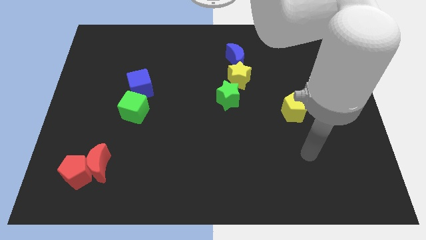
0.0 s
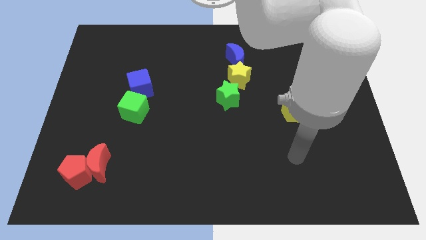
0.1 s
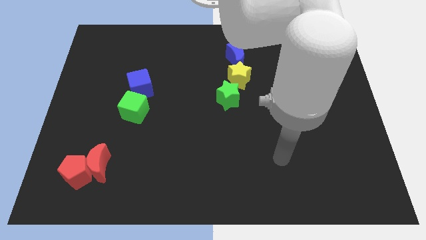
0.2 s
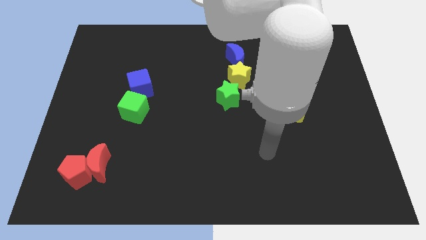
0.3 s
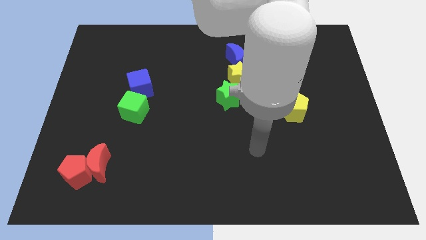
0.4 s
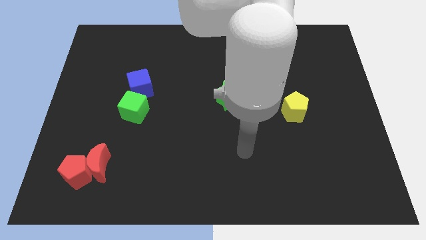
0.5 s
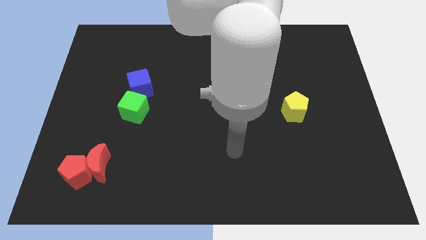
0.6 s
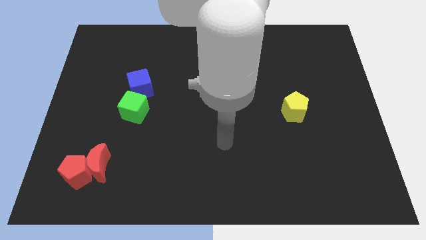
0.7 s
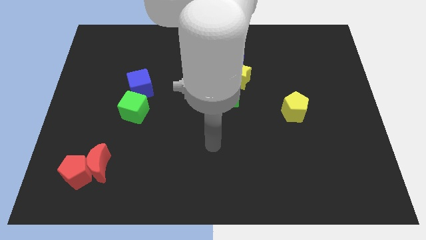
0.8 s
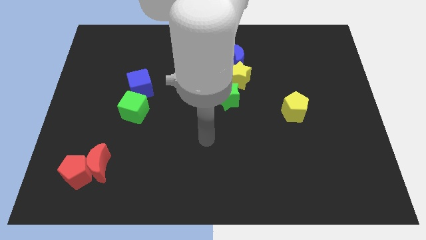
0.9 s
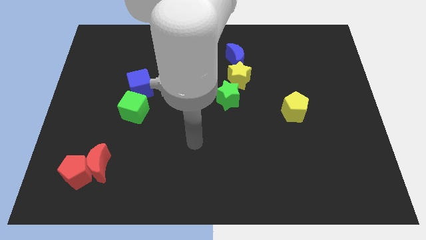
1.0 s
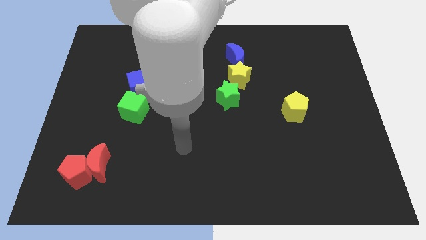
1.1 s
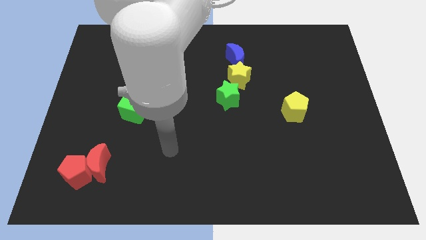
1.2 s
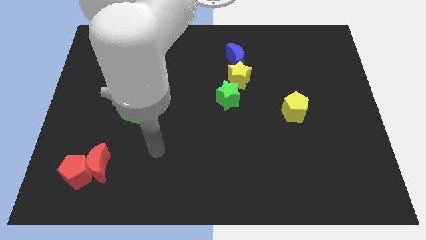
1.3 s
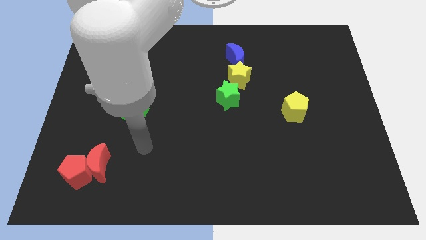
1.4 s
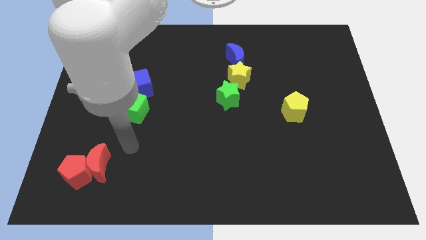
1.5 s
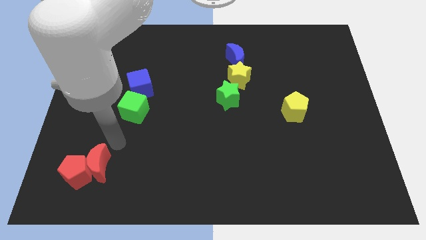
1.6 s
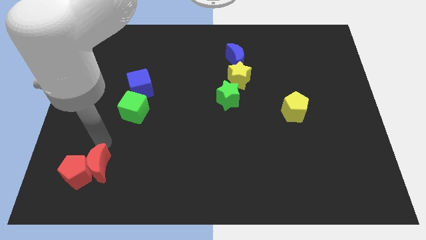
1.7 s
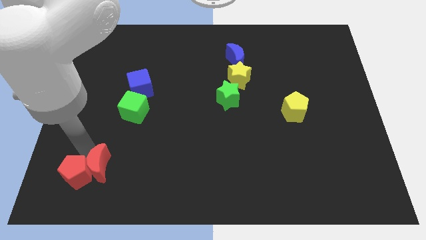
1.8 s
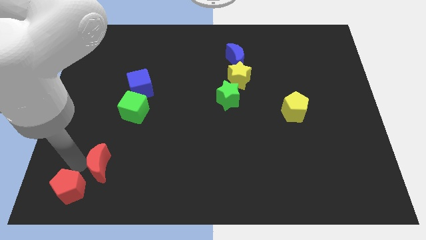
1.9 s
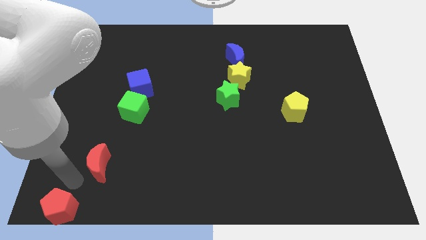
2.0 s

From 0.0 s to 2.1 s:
pull the red moon apart from the red pentagon

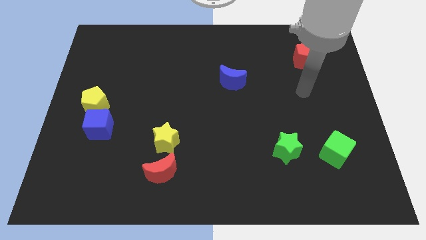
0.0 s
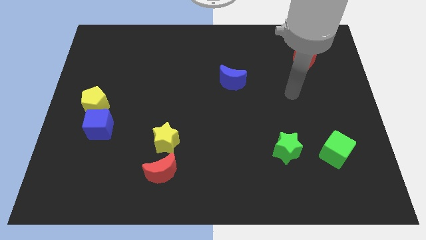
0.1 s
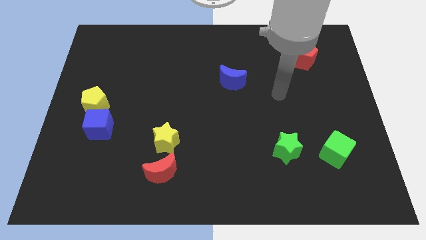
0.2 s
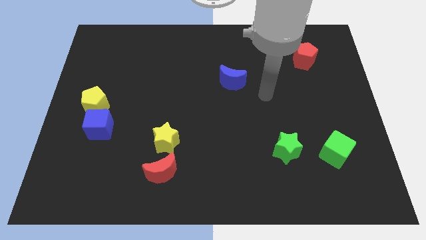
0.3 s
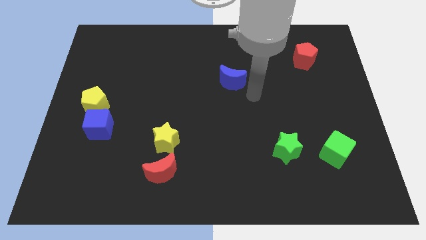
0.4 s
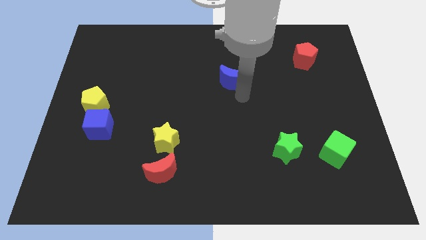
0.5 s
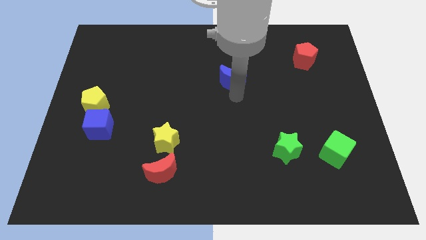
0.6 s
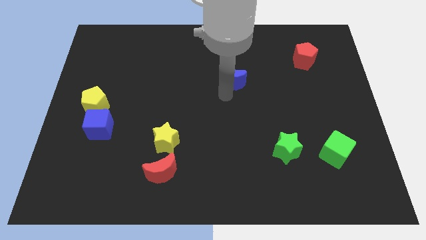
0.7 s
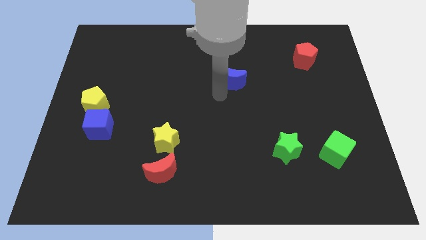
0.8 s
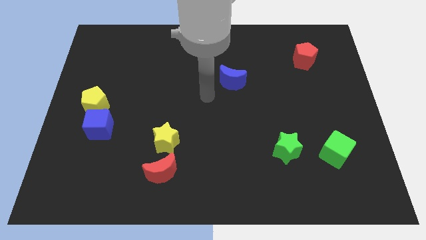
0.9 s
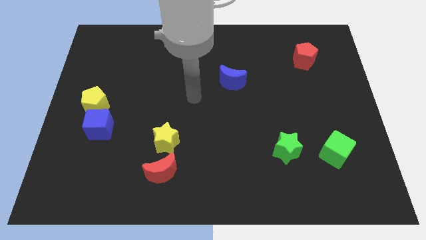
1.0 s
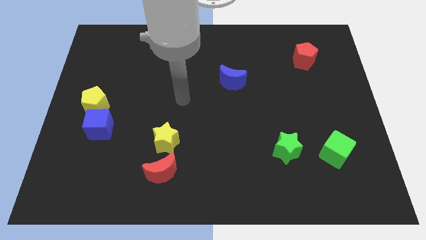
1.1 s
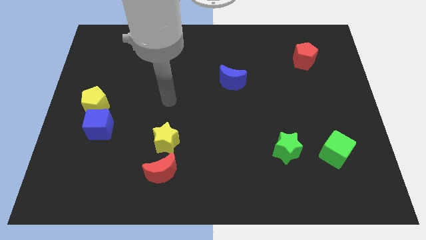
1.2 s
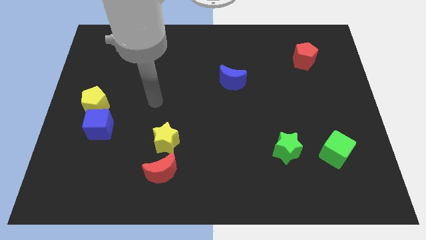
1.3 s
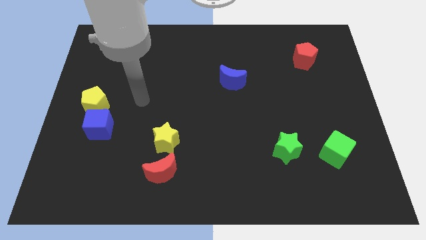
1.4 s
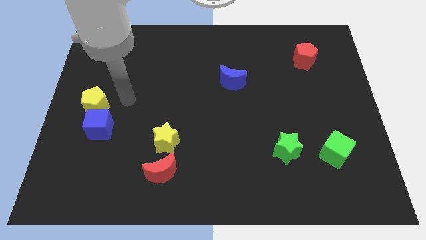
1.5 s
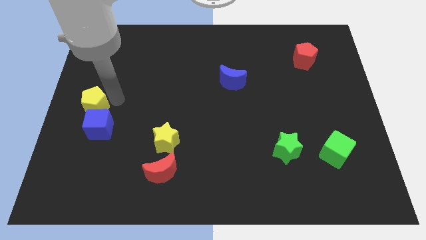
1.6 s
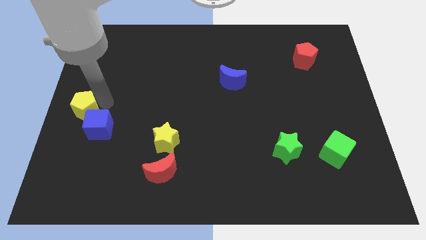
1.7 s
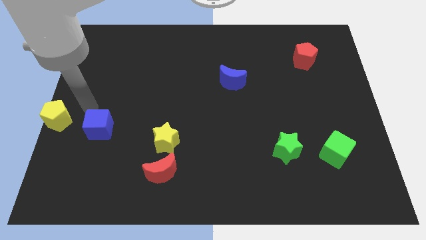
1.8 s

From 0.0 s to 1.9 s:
separate the blue cube from the yellow pentagon

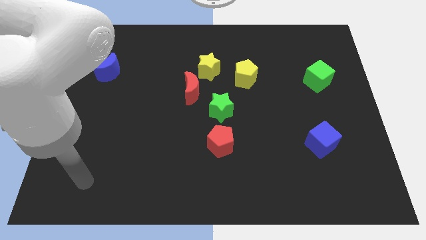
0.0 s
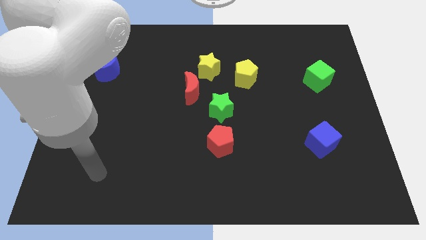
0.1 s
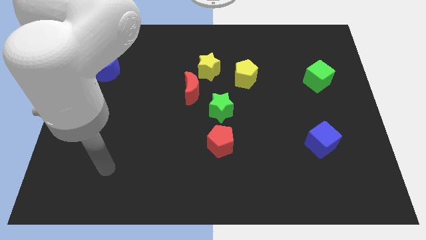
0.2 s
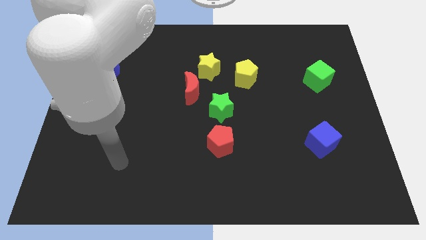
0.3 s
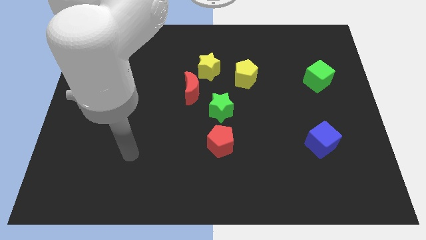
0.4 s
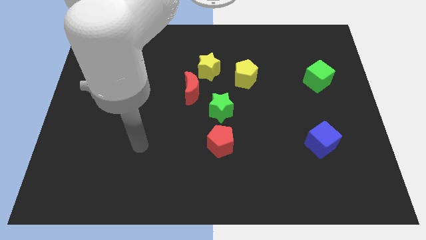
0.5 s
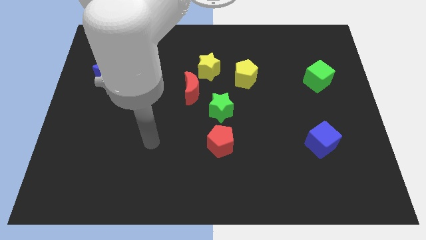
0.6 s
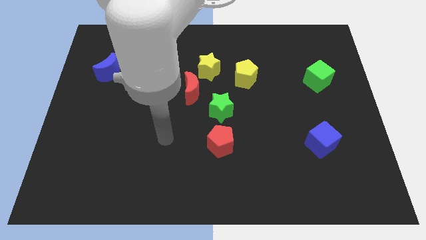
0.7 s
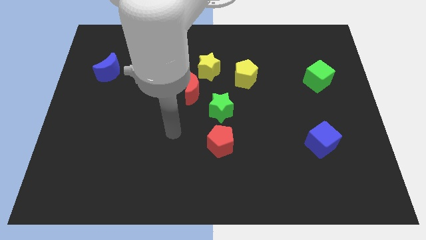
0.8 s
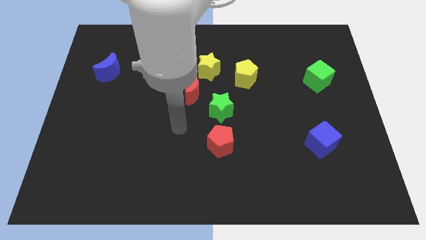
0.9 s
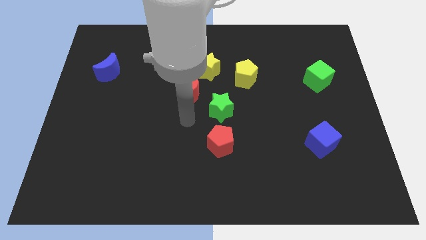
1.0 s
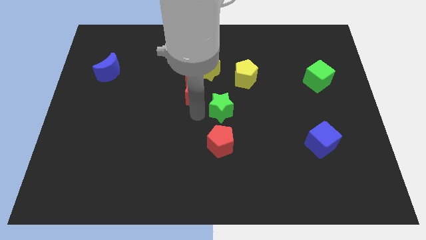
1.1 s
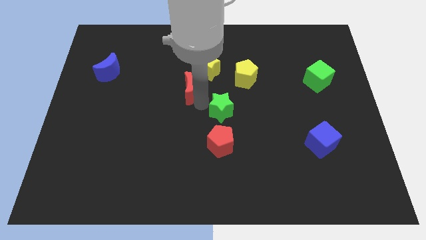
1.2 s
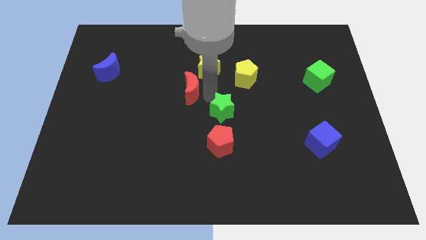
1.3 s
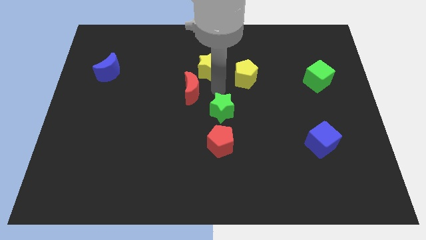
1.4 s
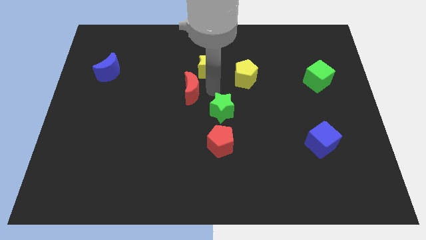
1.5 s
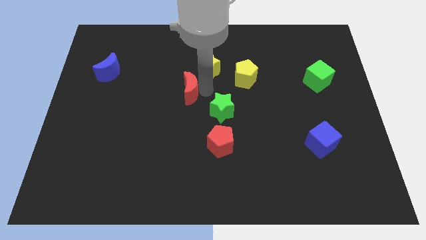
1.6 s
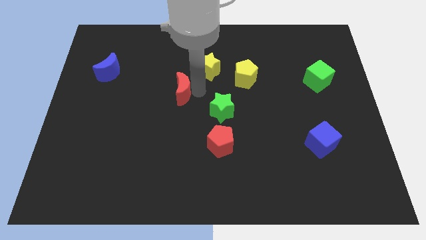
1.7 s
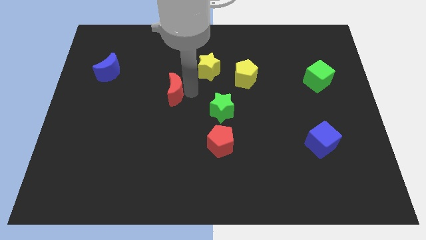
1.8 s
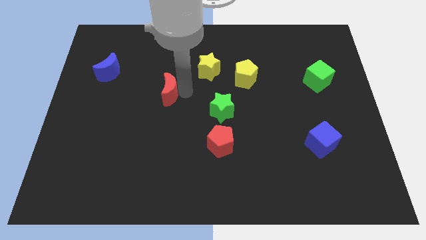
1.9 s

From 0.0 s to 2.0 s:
move the red moon away from the yellow star and green star

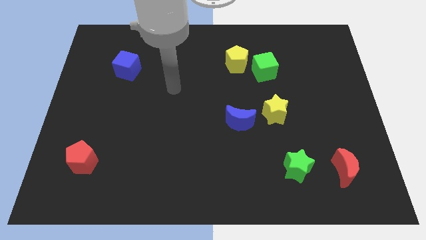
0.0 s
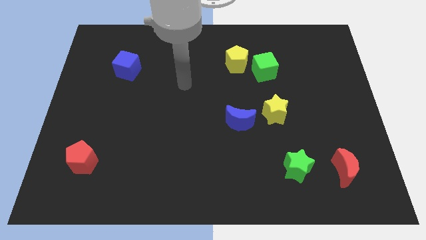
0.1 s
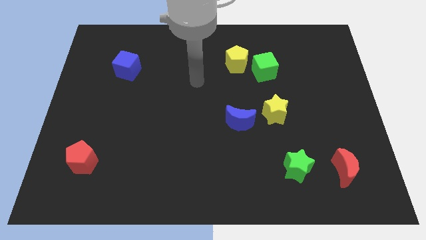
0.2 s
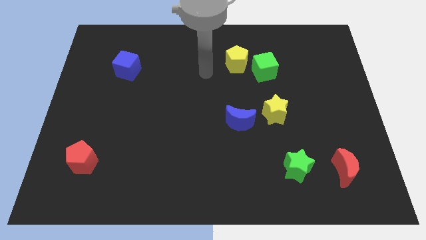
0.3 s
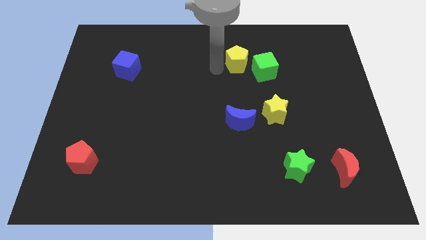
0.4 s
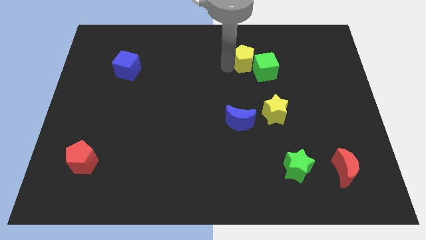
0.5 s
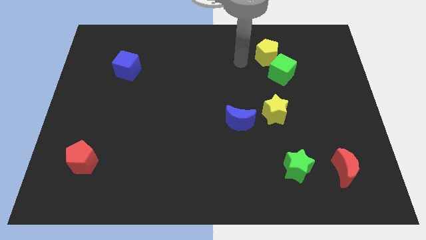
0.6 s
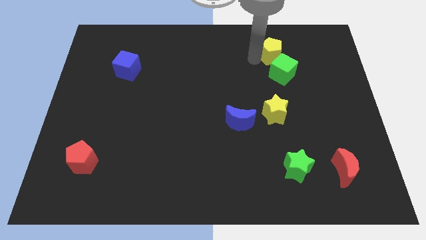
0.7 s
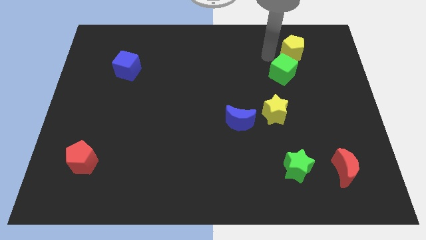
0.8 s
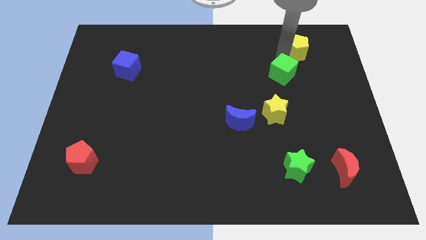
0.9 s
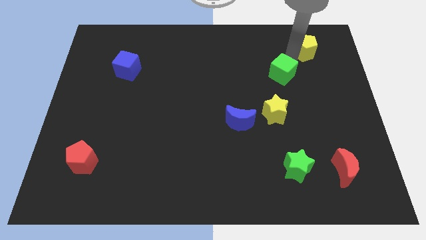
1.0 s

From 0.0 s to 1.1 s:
move the green cube away from the yellow pentagon

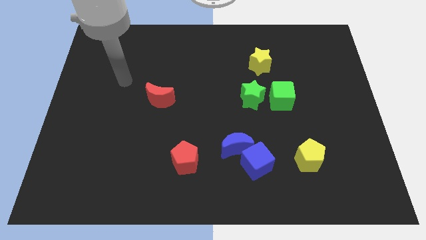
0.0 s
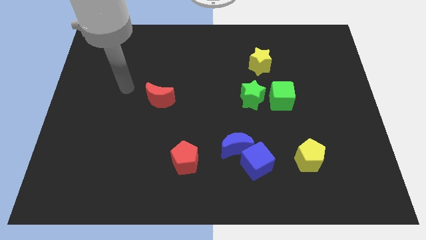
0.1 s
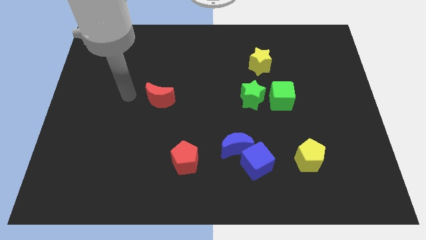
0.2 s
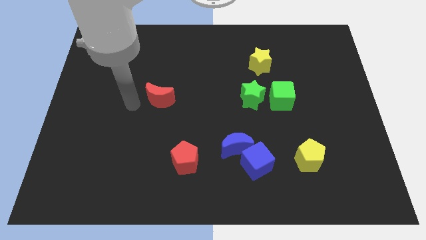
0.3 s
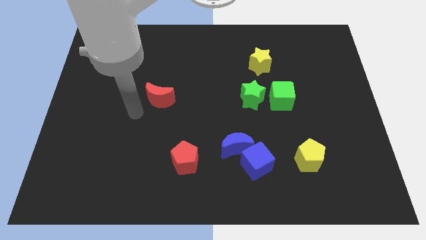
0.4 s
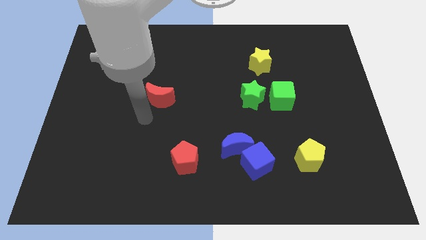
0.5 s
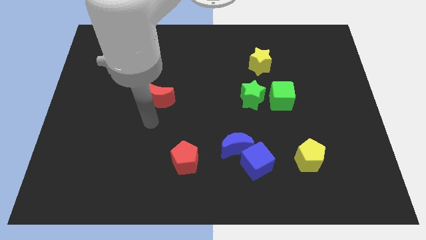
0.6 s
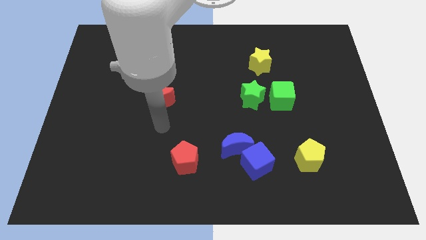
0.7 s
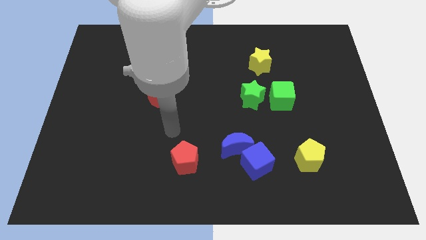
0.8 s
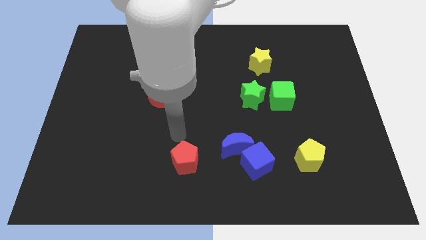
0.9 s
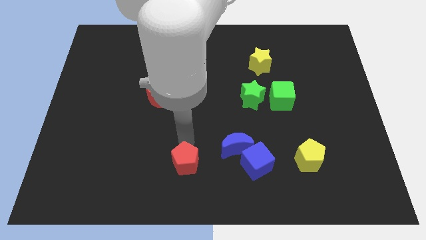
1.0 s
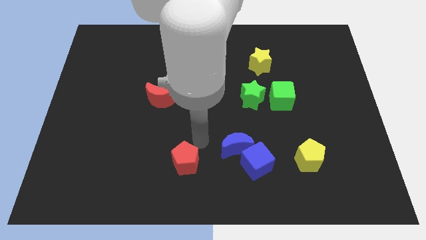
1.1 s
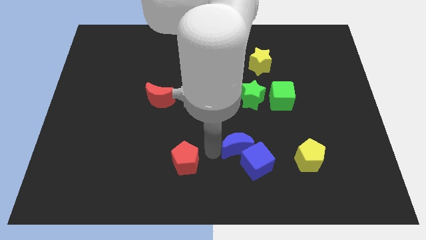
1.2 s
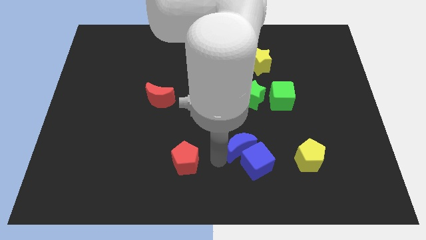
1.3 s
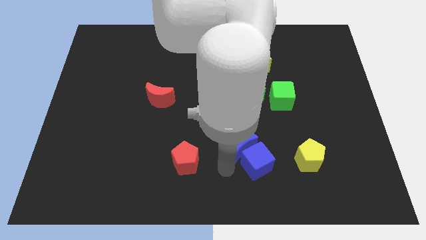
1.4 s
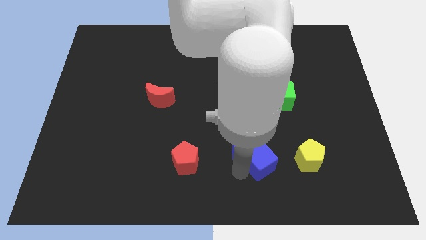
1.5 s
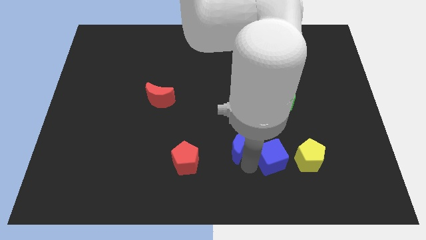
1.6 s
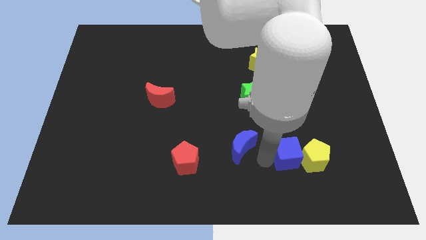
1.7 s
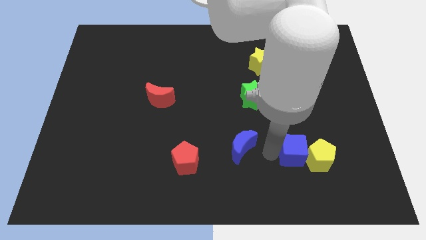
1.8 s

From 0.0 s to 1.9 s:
separate the blue moon from the blue cube

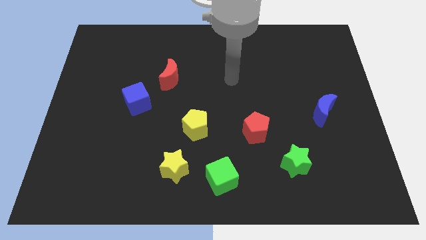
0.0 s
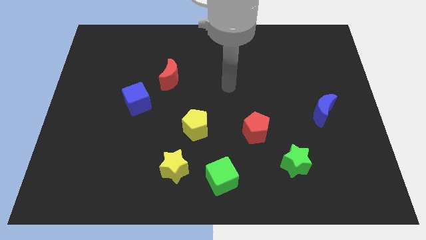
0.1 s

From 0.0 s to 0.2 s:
separate the green cube from the yellow star
